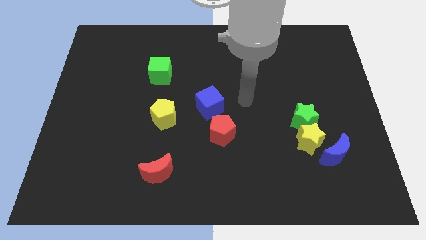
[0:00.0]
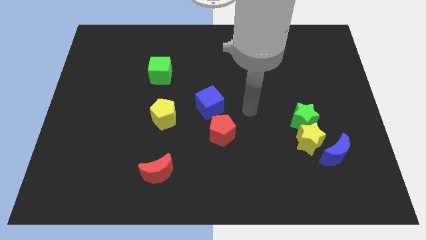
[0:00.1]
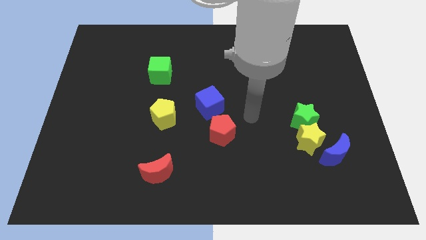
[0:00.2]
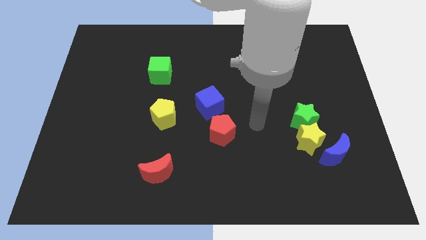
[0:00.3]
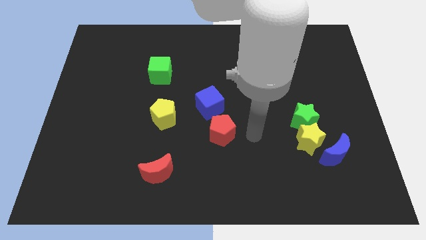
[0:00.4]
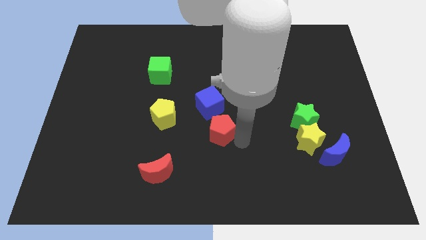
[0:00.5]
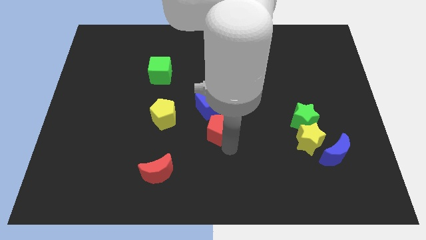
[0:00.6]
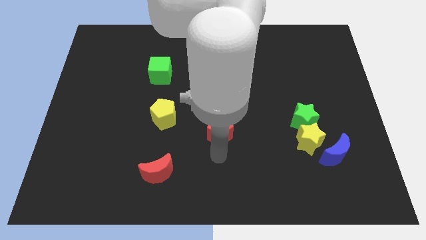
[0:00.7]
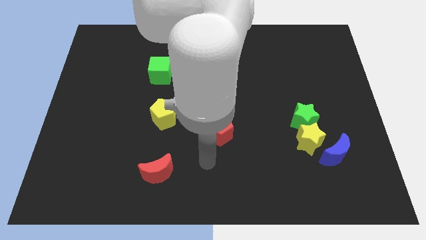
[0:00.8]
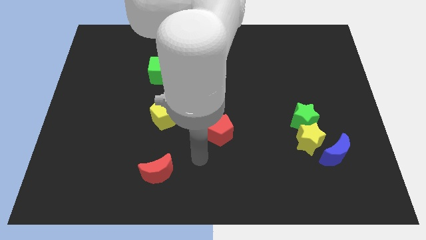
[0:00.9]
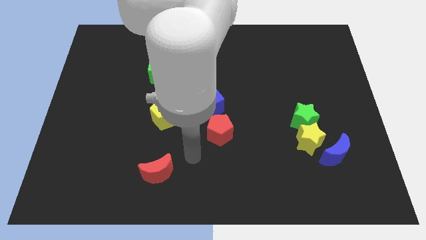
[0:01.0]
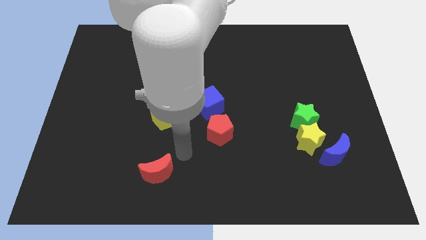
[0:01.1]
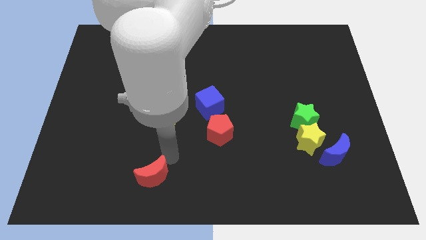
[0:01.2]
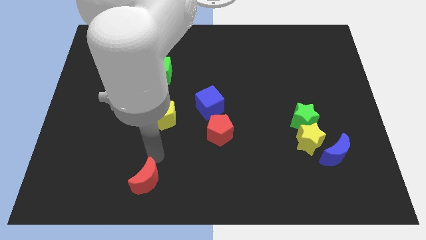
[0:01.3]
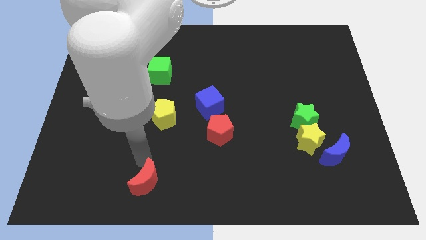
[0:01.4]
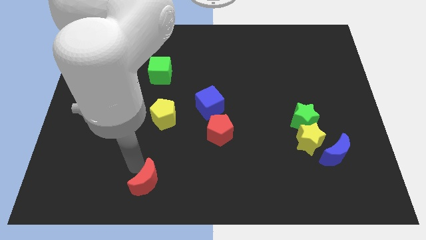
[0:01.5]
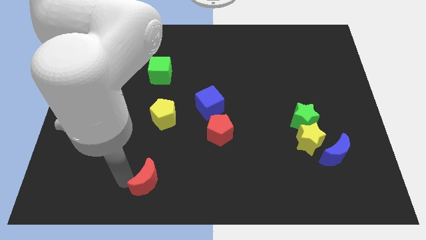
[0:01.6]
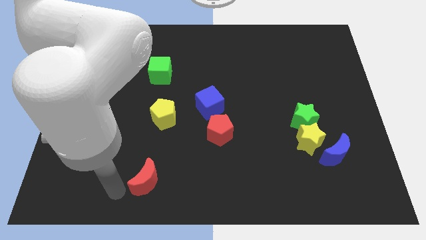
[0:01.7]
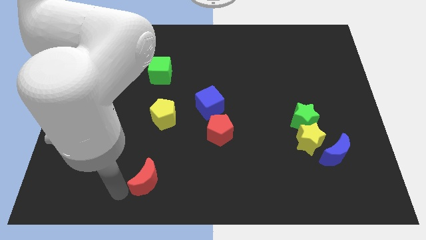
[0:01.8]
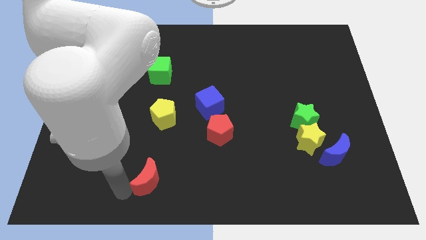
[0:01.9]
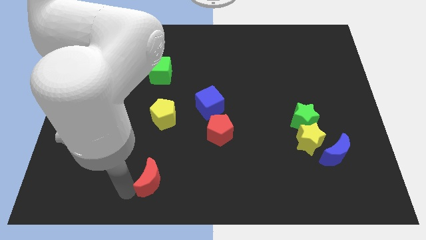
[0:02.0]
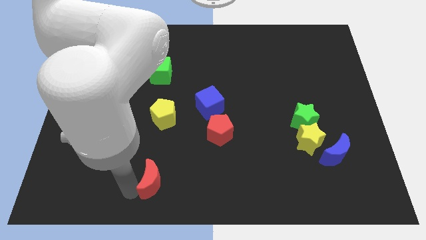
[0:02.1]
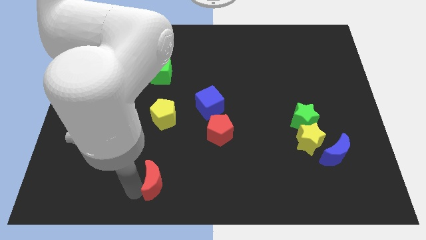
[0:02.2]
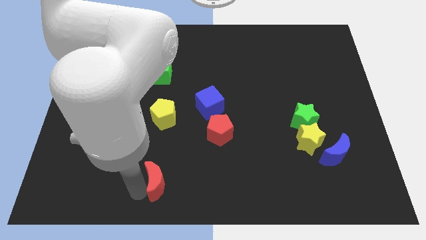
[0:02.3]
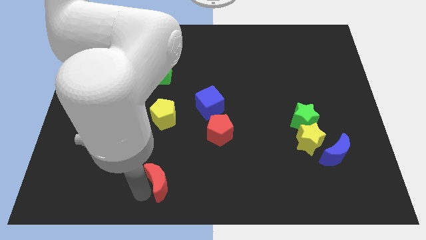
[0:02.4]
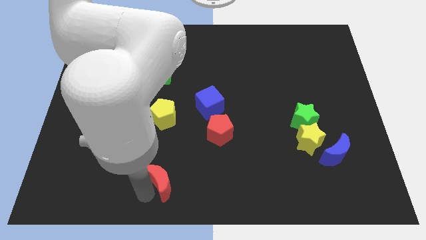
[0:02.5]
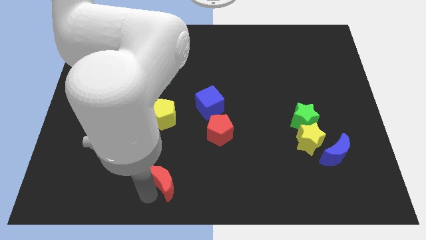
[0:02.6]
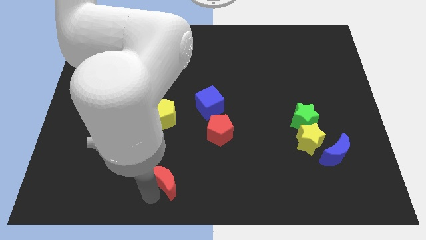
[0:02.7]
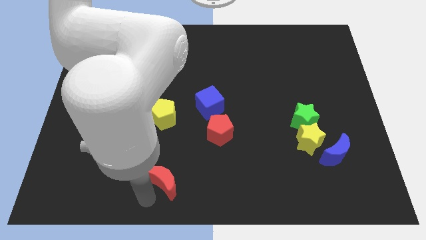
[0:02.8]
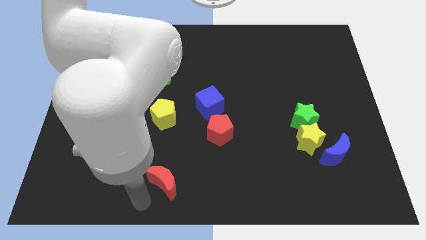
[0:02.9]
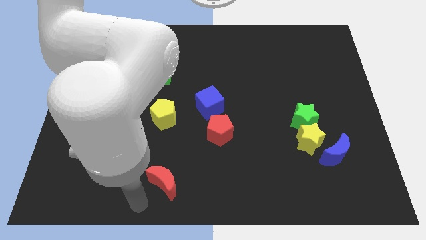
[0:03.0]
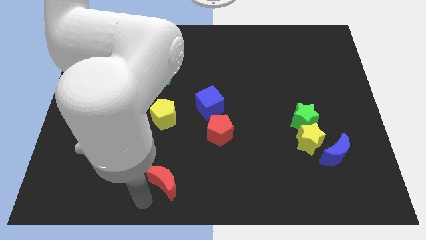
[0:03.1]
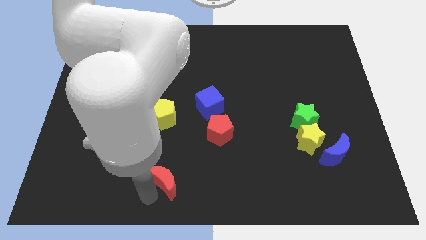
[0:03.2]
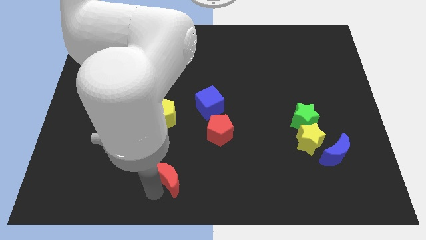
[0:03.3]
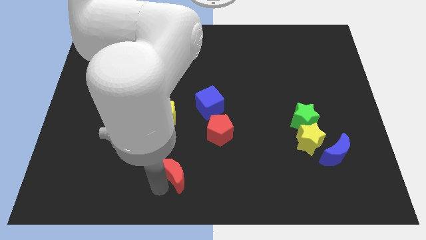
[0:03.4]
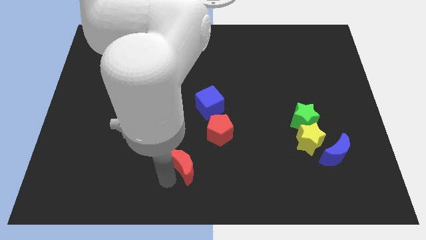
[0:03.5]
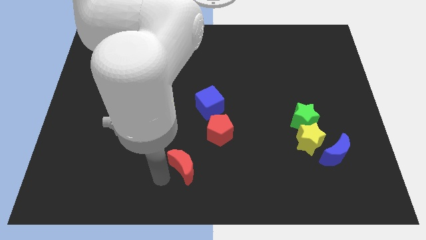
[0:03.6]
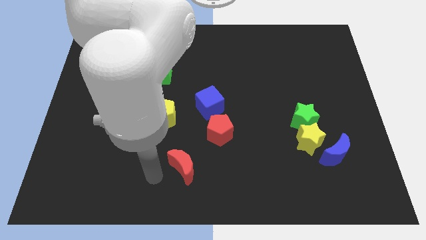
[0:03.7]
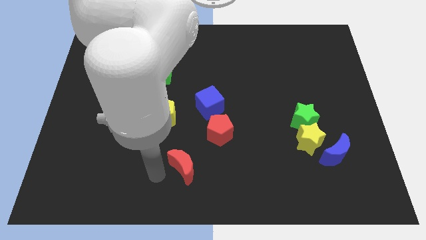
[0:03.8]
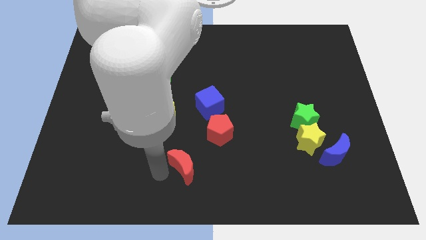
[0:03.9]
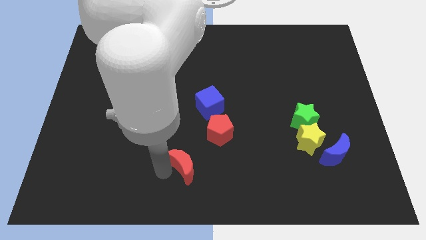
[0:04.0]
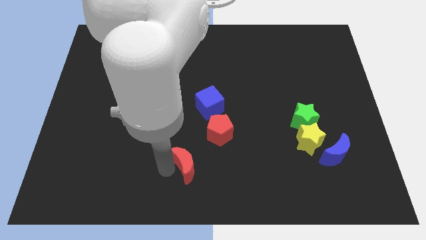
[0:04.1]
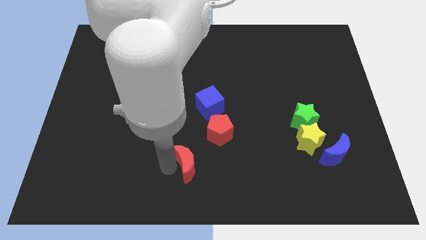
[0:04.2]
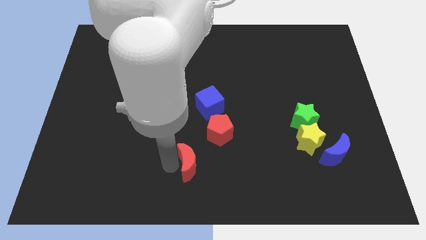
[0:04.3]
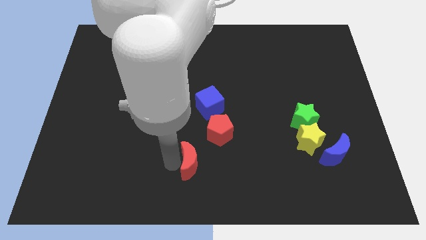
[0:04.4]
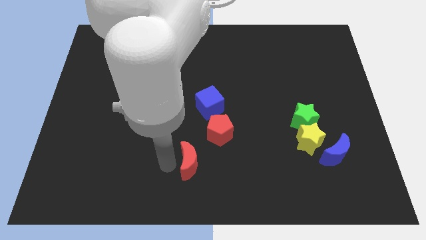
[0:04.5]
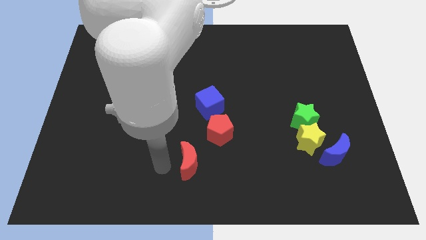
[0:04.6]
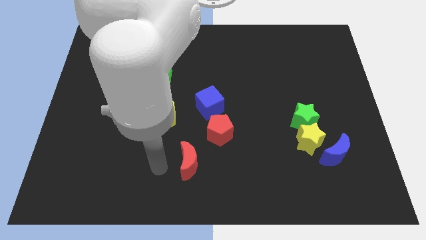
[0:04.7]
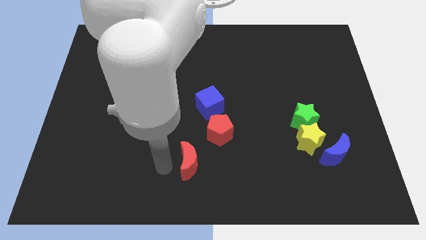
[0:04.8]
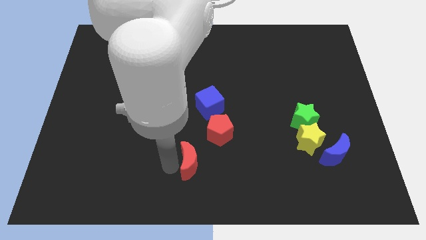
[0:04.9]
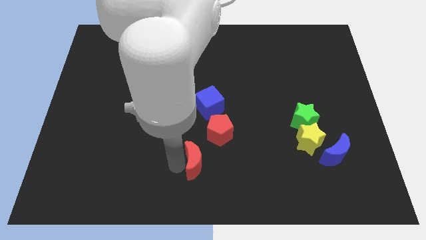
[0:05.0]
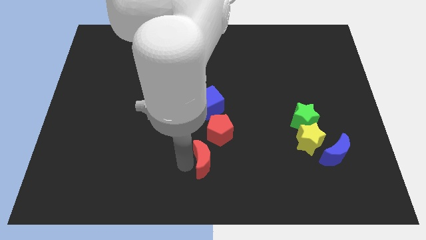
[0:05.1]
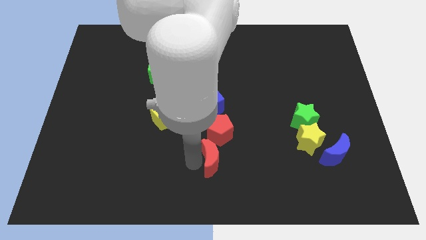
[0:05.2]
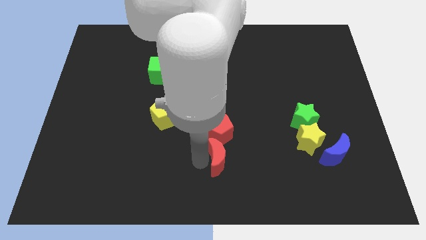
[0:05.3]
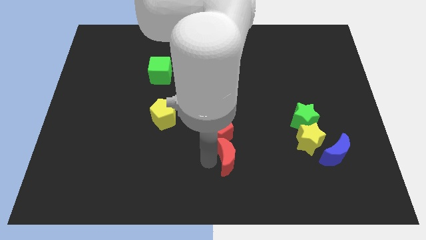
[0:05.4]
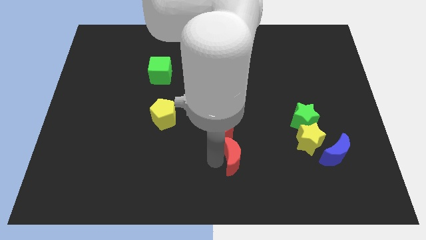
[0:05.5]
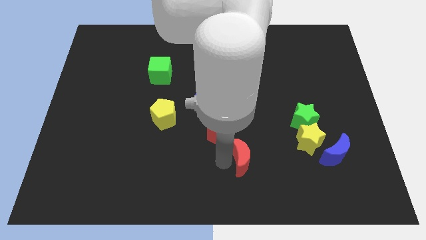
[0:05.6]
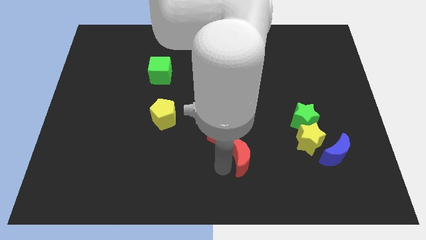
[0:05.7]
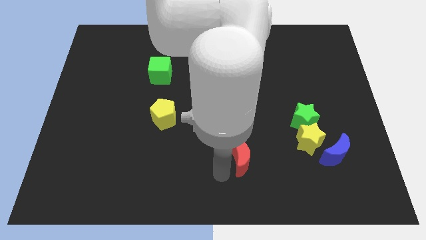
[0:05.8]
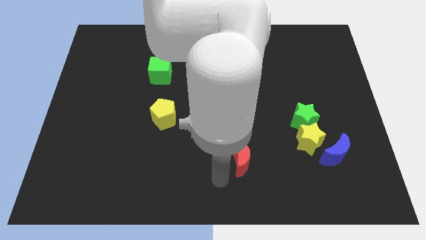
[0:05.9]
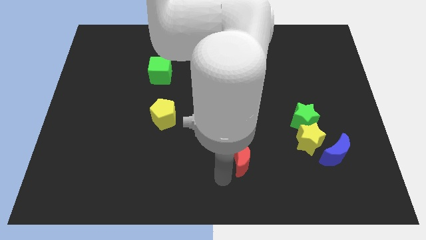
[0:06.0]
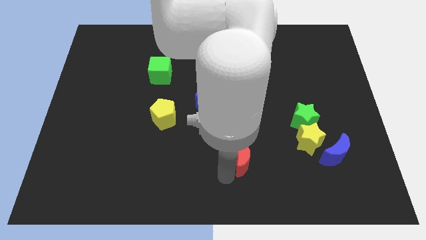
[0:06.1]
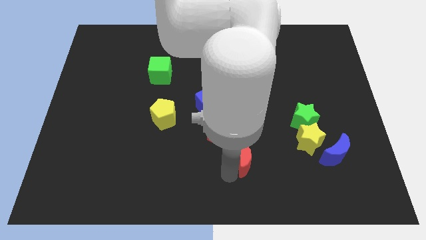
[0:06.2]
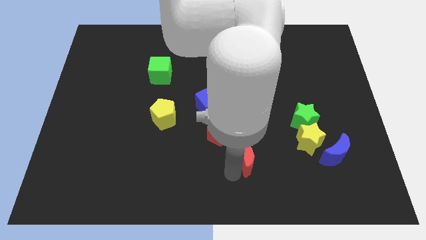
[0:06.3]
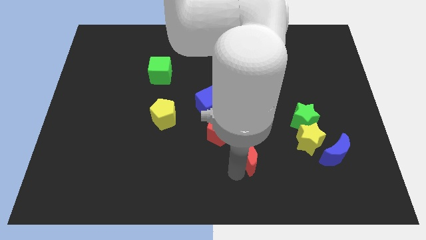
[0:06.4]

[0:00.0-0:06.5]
move the red moon left of the yellow star
